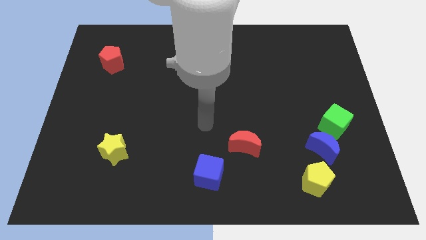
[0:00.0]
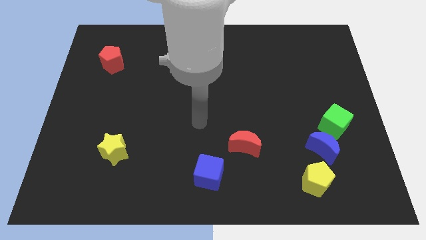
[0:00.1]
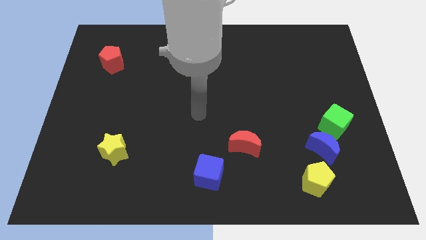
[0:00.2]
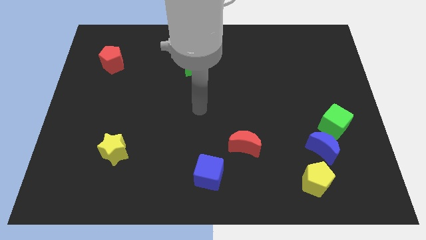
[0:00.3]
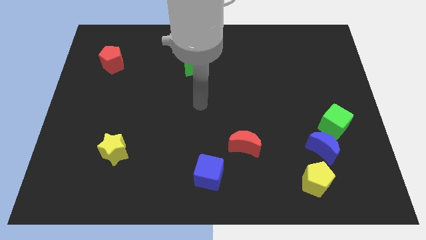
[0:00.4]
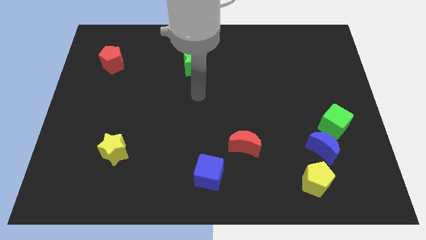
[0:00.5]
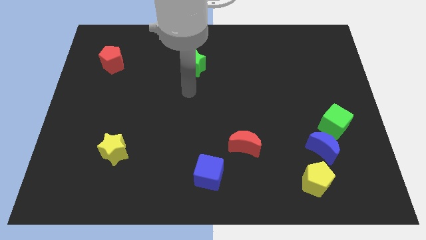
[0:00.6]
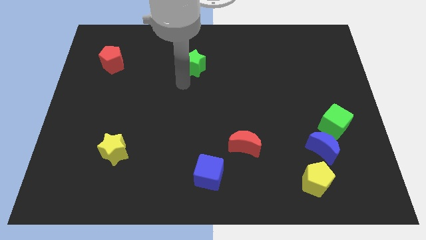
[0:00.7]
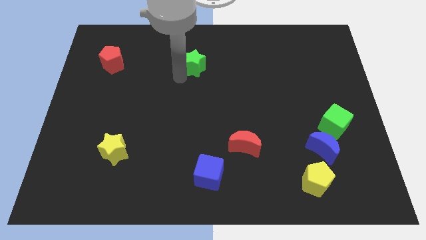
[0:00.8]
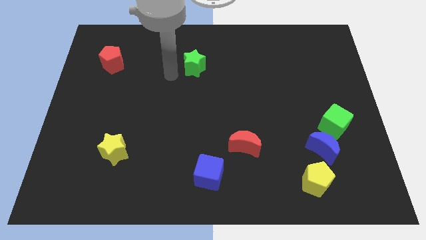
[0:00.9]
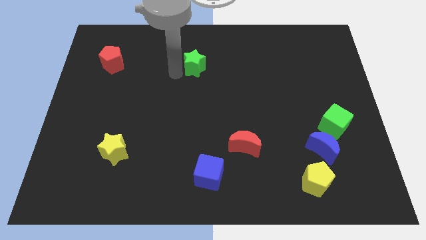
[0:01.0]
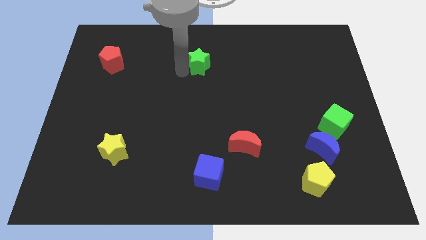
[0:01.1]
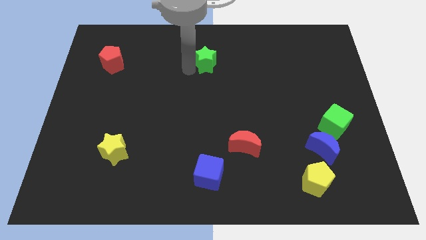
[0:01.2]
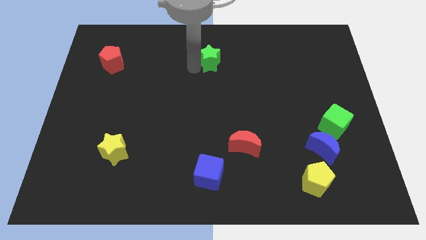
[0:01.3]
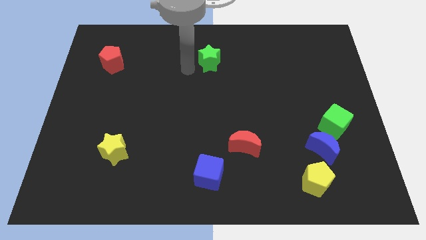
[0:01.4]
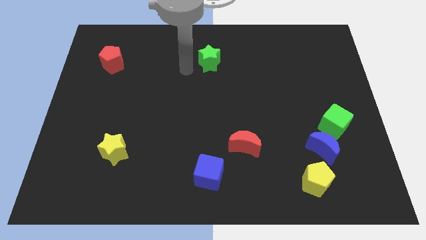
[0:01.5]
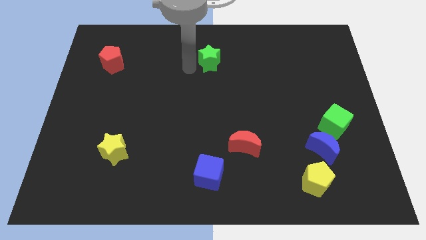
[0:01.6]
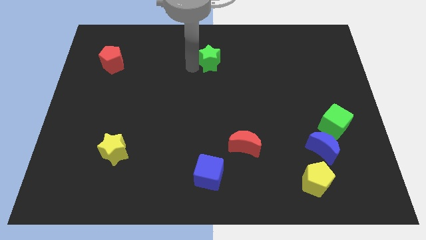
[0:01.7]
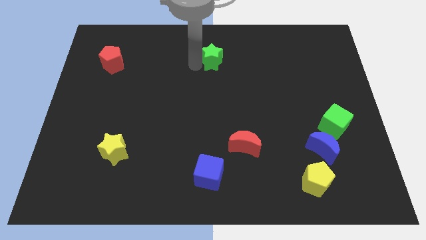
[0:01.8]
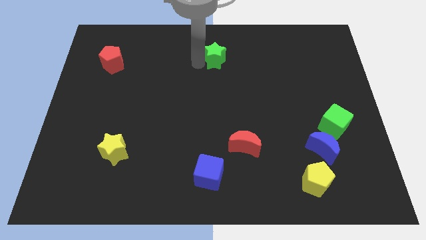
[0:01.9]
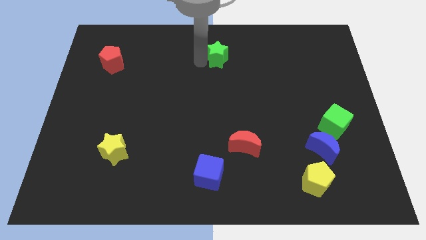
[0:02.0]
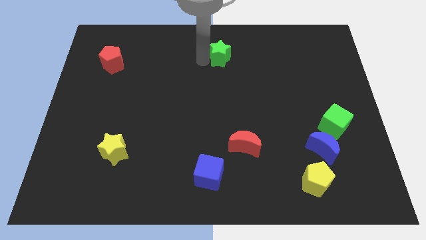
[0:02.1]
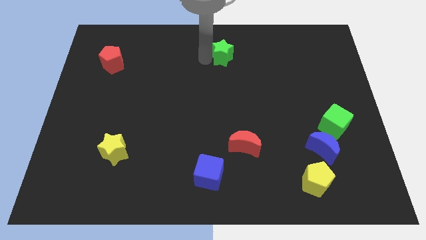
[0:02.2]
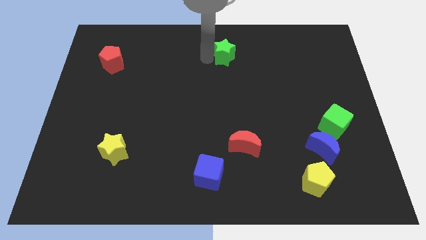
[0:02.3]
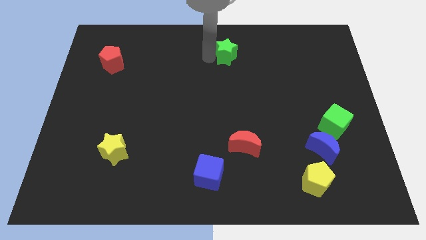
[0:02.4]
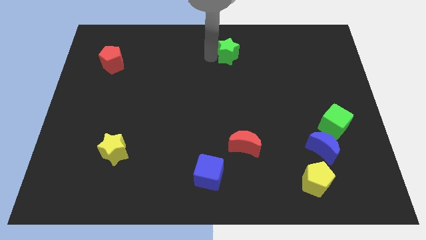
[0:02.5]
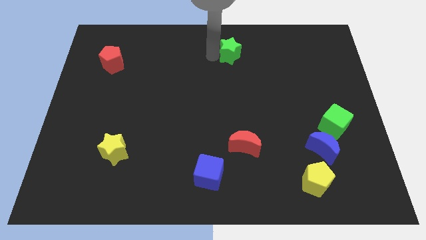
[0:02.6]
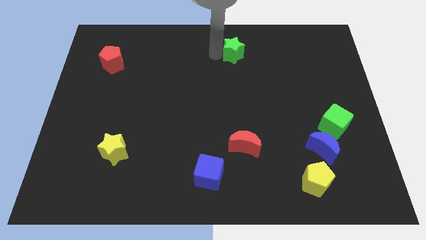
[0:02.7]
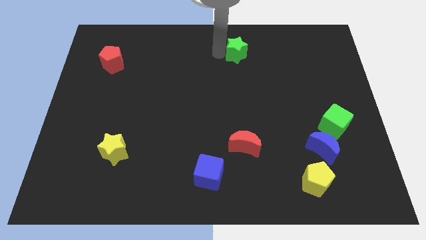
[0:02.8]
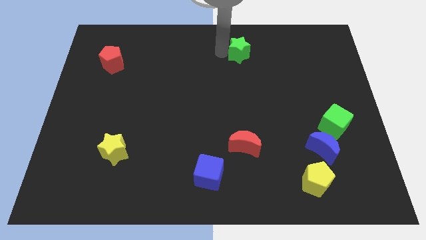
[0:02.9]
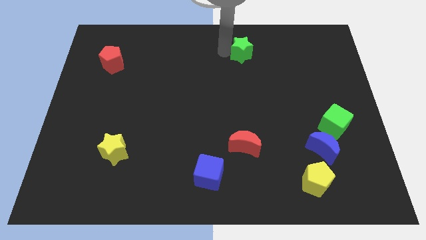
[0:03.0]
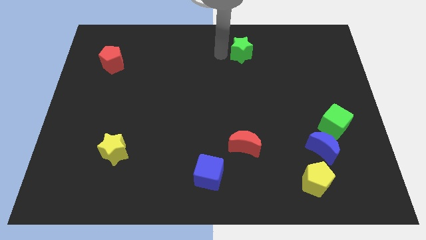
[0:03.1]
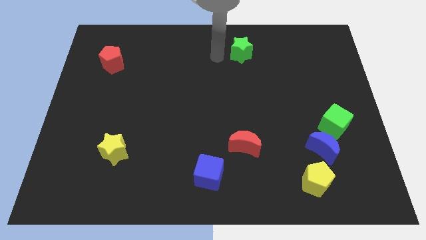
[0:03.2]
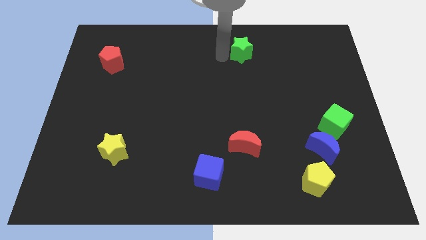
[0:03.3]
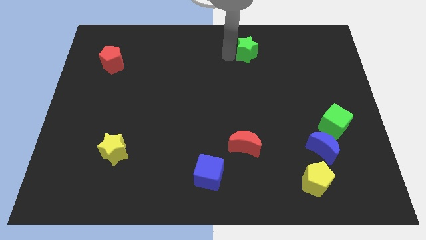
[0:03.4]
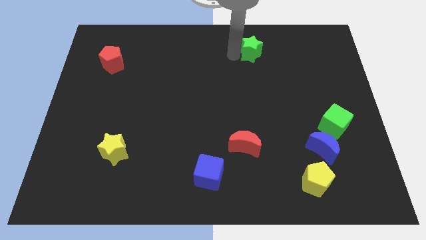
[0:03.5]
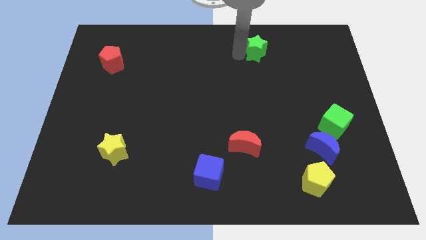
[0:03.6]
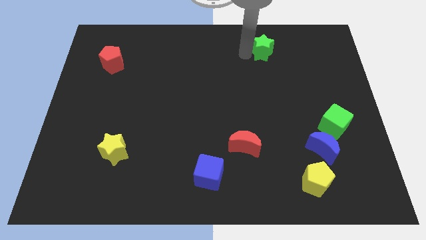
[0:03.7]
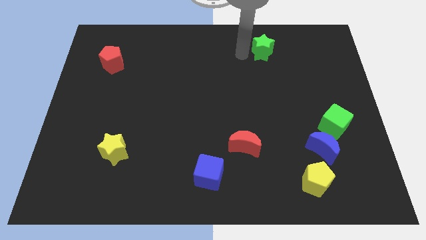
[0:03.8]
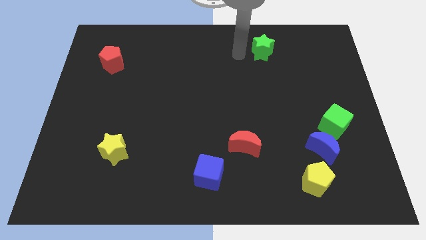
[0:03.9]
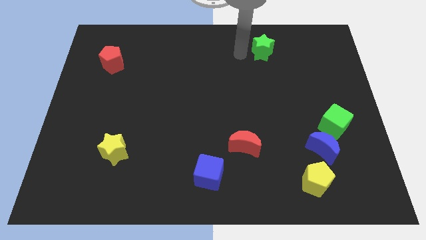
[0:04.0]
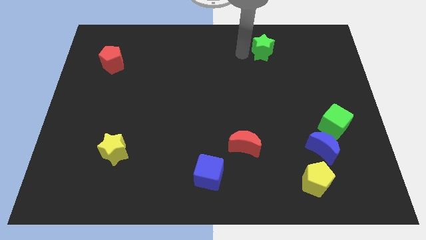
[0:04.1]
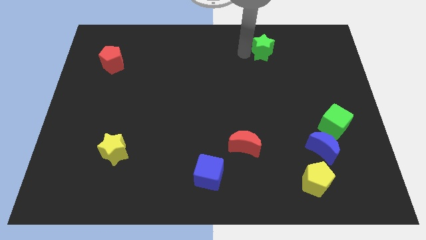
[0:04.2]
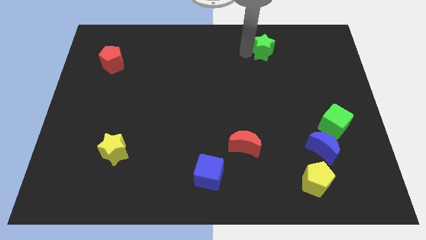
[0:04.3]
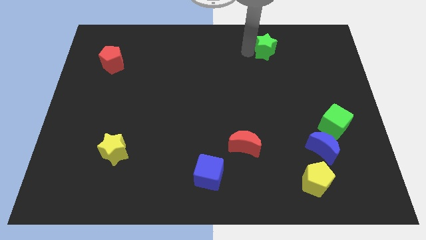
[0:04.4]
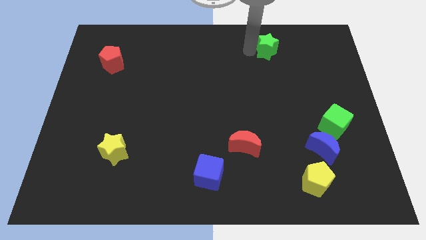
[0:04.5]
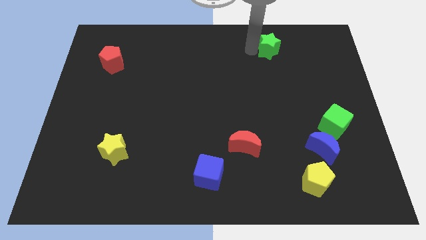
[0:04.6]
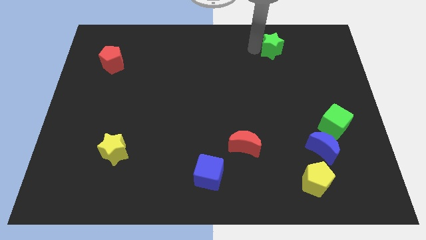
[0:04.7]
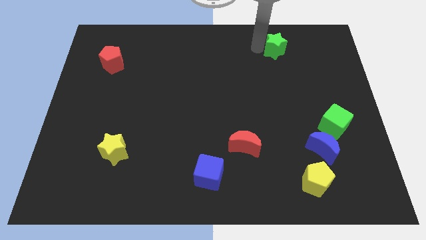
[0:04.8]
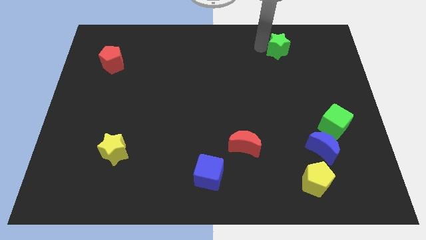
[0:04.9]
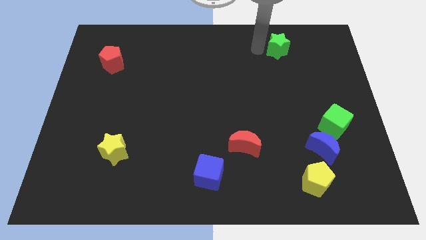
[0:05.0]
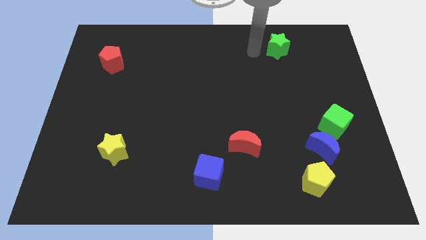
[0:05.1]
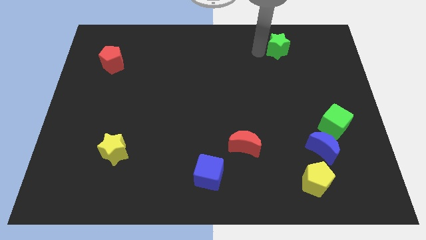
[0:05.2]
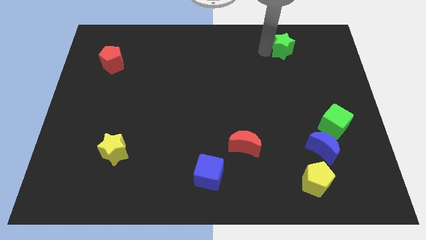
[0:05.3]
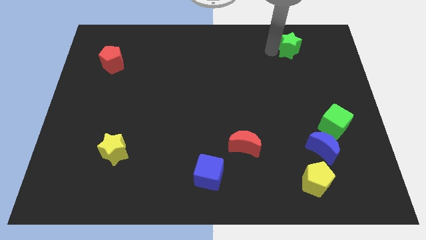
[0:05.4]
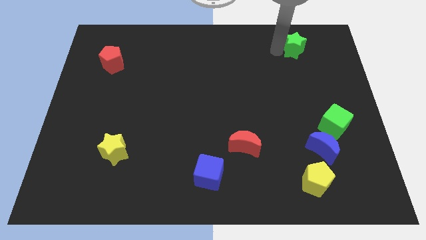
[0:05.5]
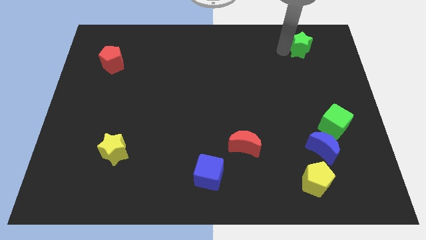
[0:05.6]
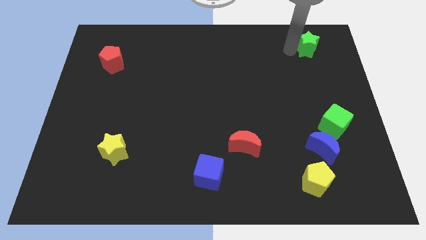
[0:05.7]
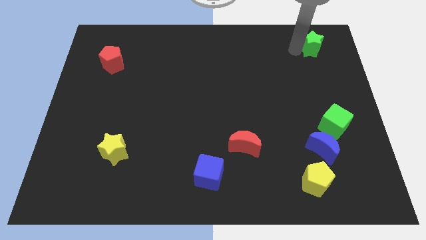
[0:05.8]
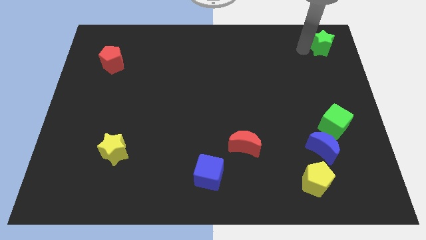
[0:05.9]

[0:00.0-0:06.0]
slide the green star to the top right
